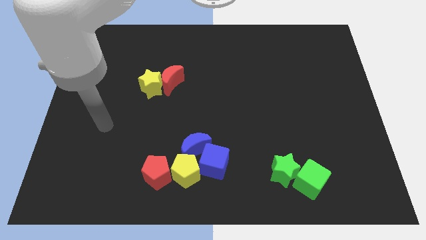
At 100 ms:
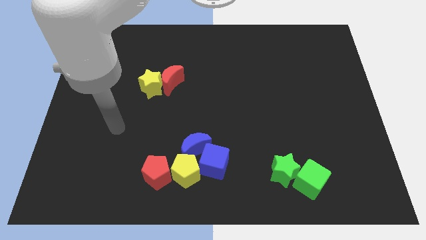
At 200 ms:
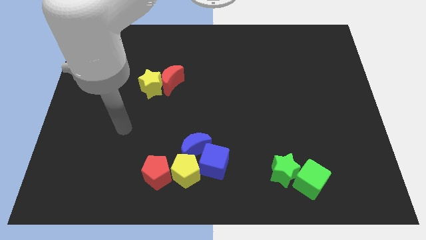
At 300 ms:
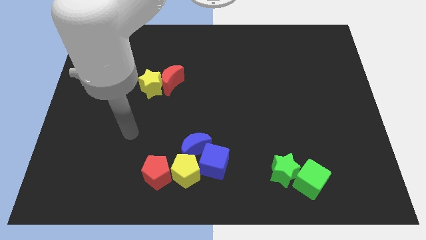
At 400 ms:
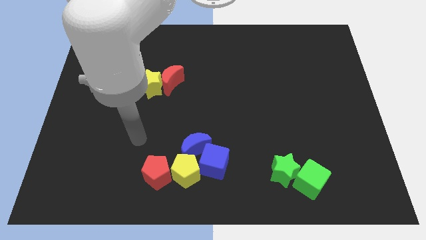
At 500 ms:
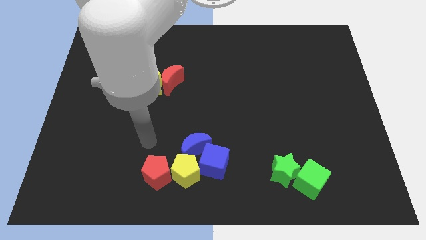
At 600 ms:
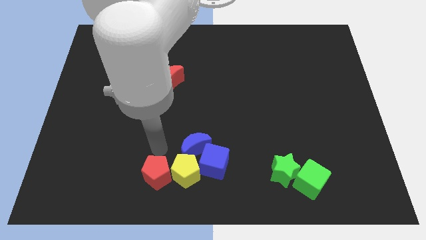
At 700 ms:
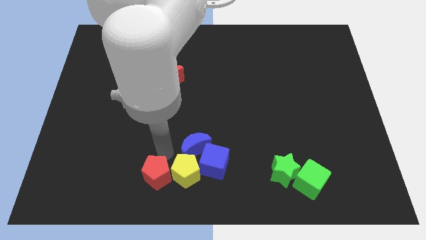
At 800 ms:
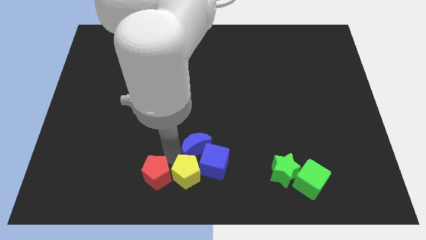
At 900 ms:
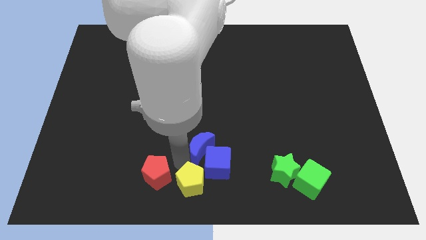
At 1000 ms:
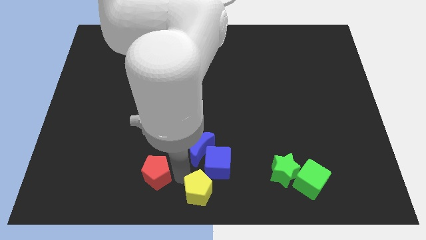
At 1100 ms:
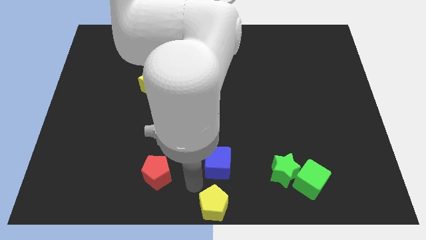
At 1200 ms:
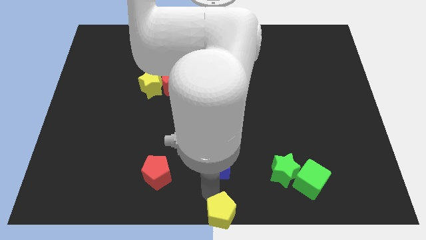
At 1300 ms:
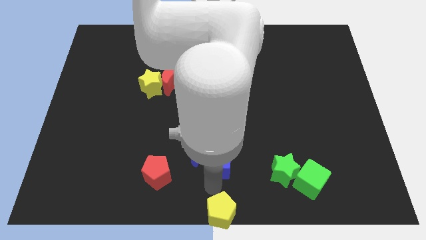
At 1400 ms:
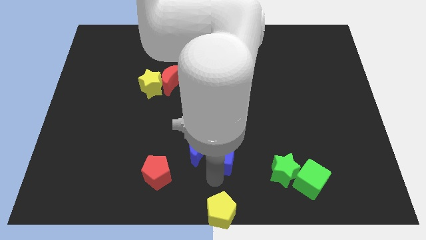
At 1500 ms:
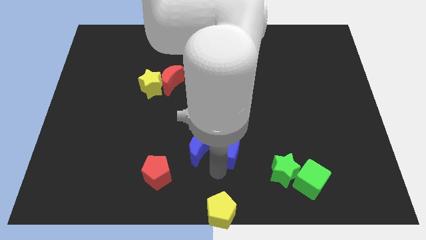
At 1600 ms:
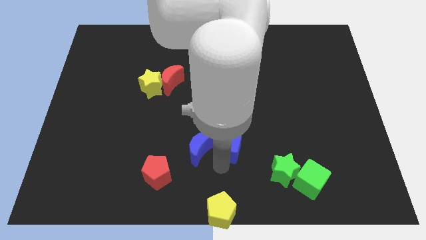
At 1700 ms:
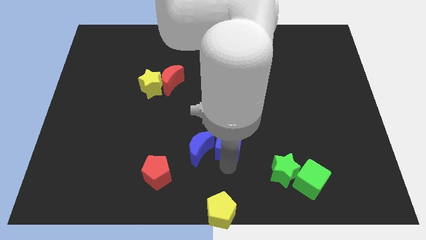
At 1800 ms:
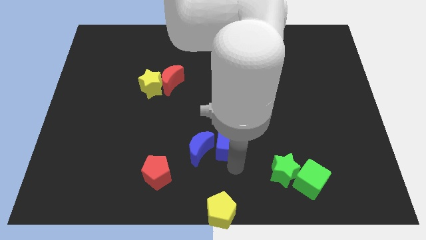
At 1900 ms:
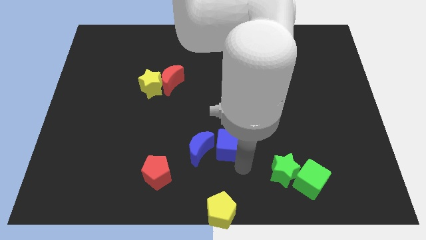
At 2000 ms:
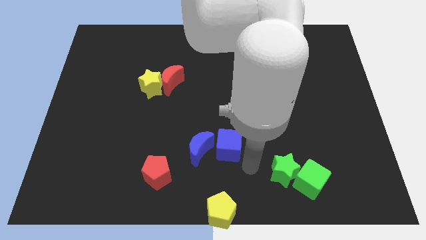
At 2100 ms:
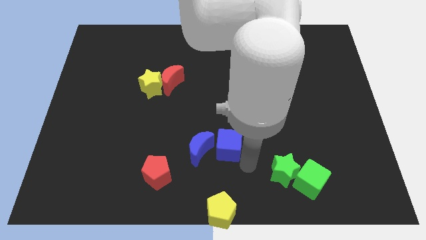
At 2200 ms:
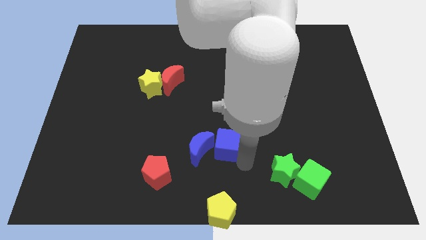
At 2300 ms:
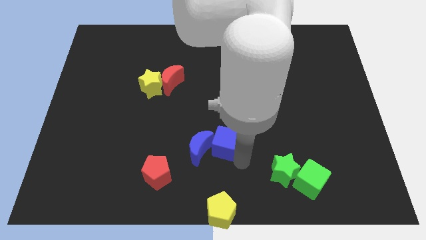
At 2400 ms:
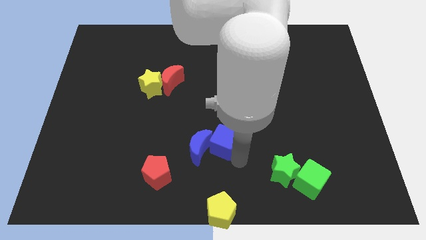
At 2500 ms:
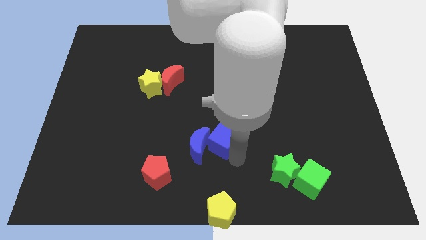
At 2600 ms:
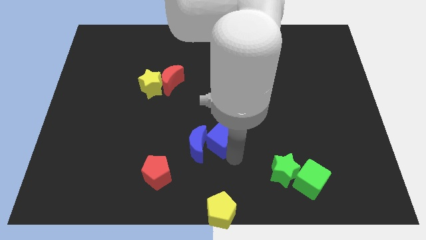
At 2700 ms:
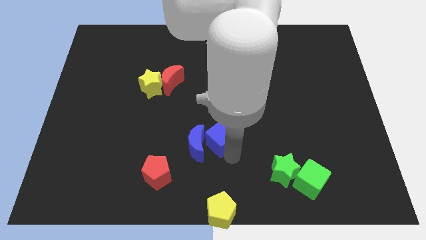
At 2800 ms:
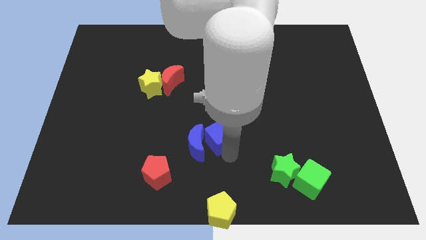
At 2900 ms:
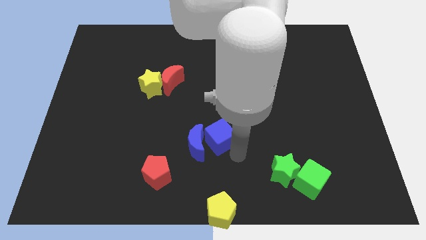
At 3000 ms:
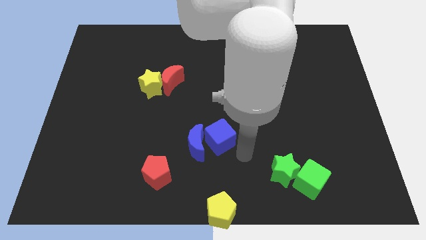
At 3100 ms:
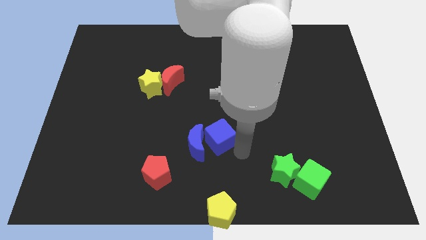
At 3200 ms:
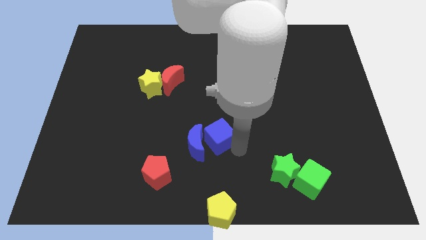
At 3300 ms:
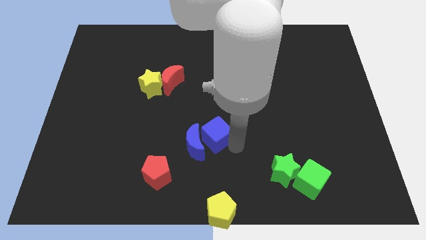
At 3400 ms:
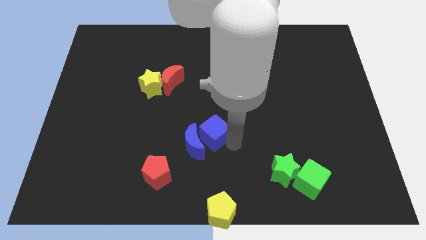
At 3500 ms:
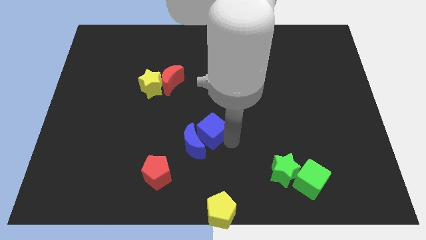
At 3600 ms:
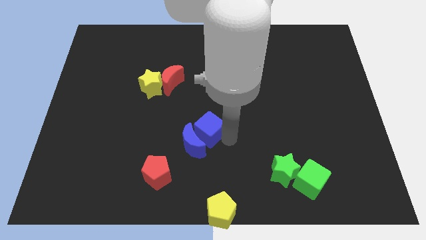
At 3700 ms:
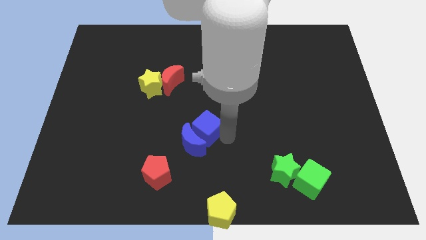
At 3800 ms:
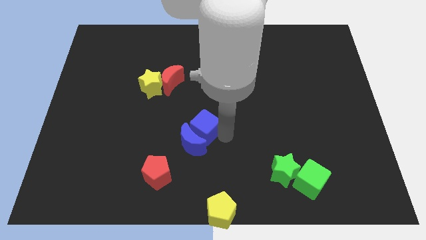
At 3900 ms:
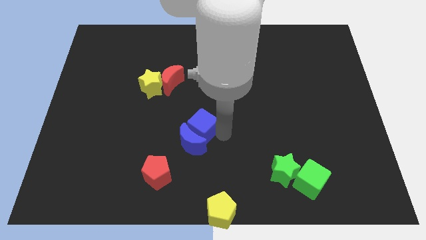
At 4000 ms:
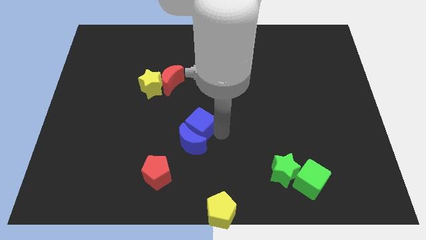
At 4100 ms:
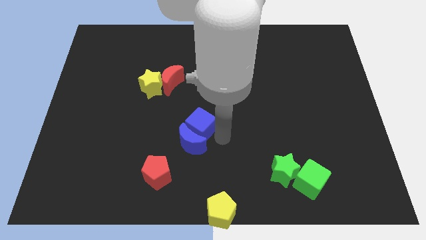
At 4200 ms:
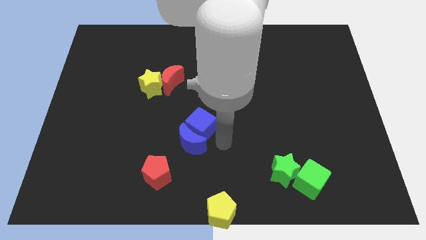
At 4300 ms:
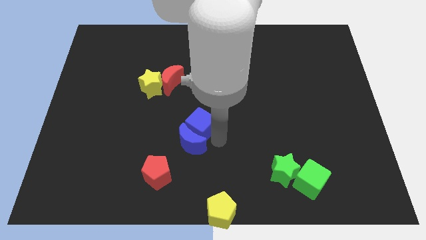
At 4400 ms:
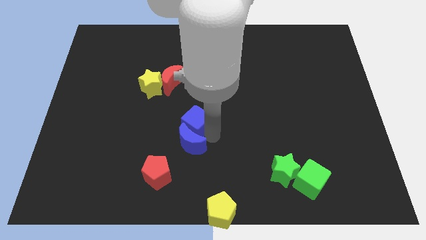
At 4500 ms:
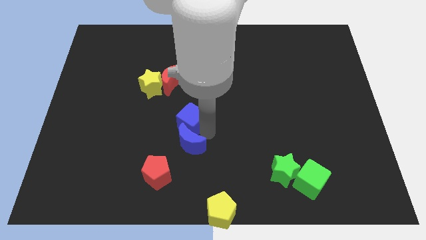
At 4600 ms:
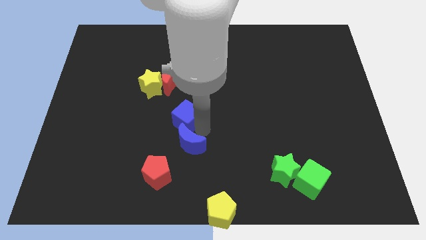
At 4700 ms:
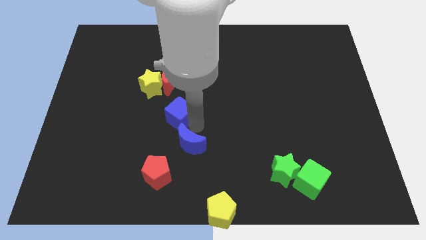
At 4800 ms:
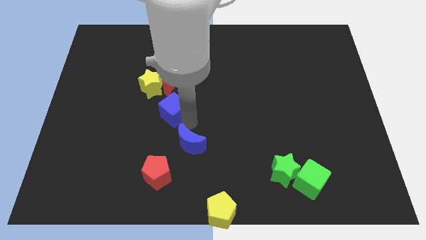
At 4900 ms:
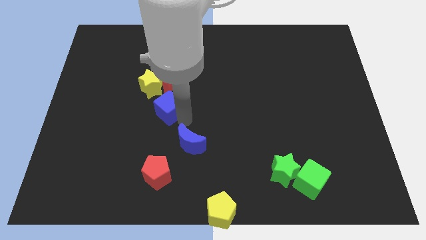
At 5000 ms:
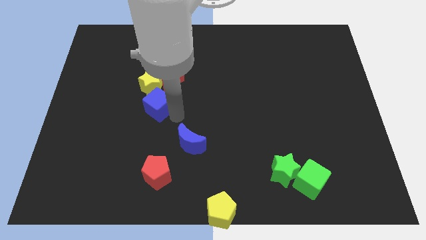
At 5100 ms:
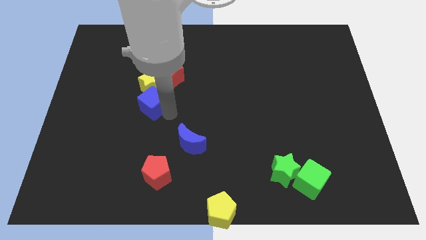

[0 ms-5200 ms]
move the blue cube towards the yellow star
